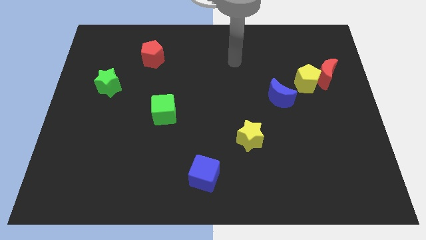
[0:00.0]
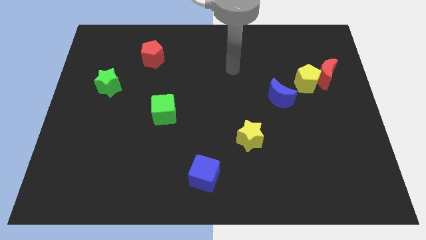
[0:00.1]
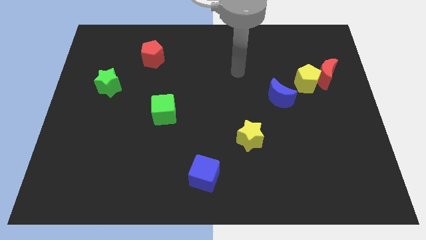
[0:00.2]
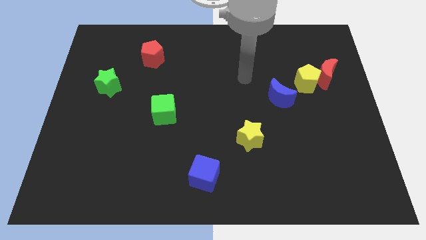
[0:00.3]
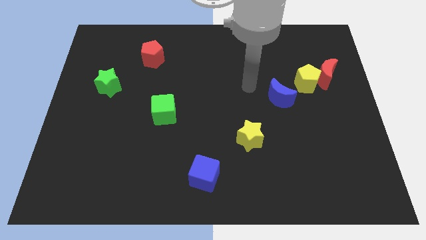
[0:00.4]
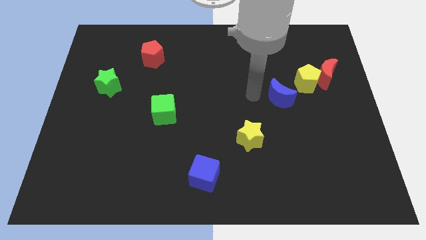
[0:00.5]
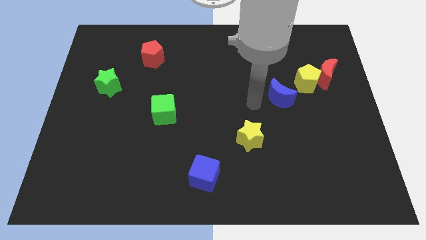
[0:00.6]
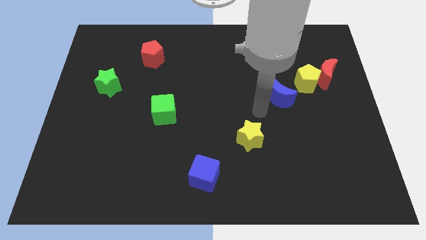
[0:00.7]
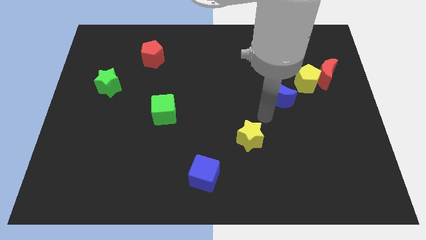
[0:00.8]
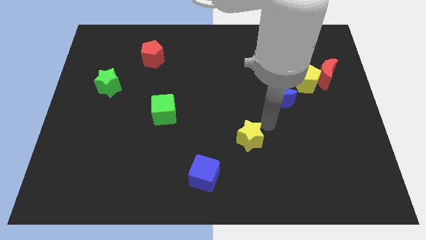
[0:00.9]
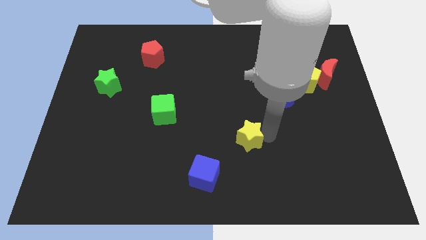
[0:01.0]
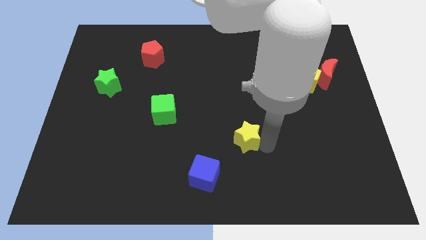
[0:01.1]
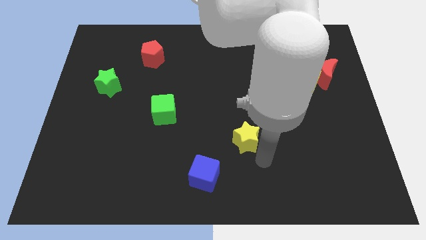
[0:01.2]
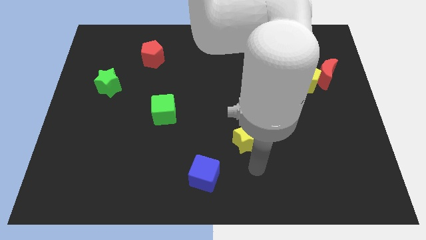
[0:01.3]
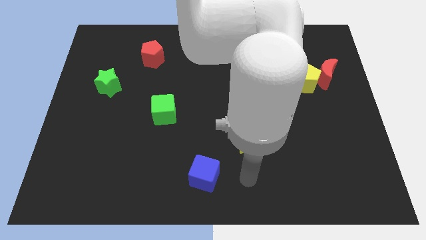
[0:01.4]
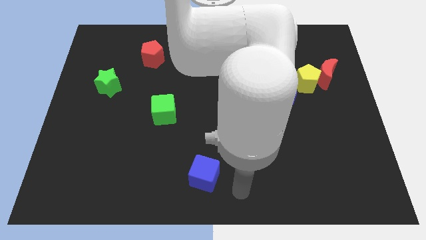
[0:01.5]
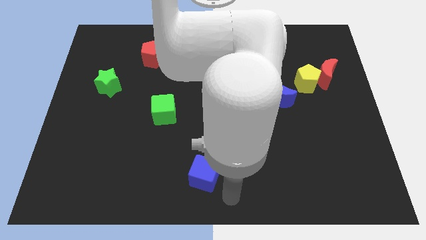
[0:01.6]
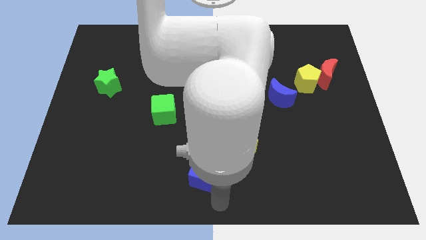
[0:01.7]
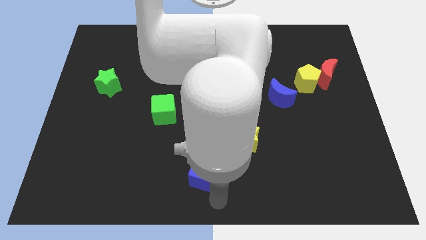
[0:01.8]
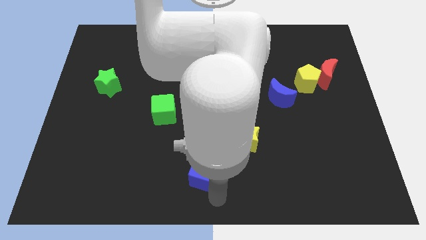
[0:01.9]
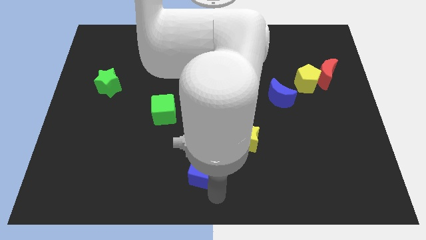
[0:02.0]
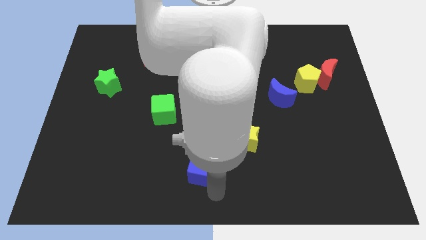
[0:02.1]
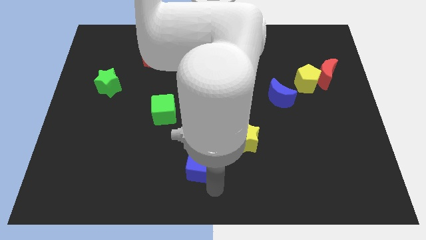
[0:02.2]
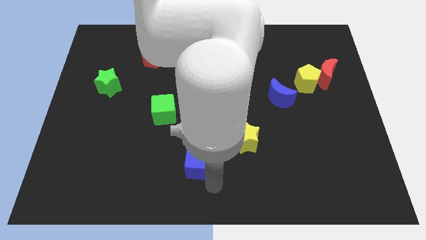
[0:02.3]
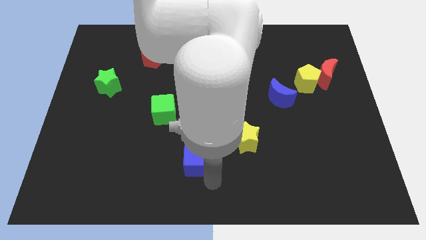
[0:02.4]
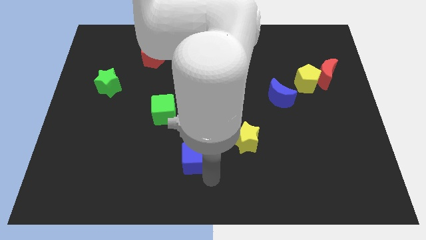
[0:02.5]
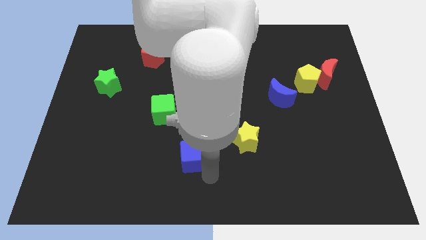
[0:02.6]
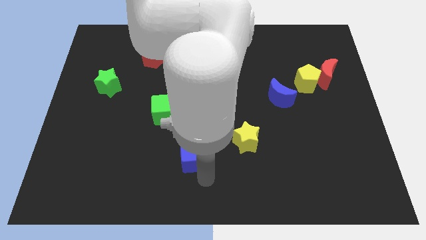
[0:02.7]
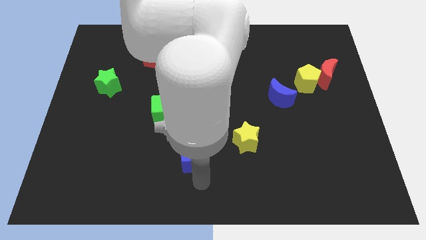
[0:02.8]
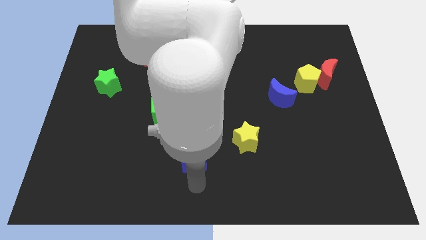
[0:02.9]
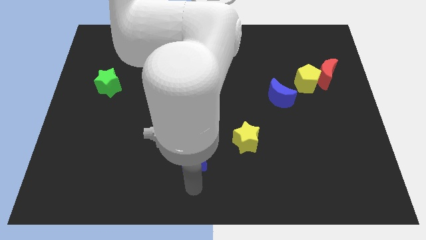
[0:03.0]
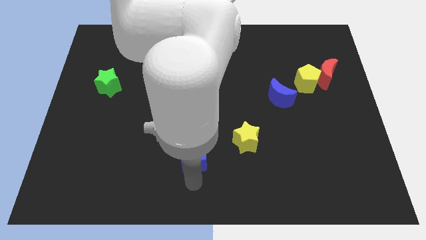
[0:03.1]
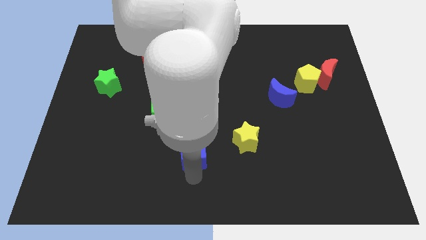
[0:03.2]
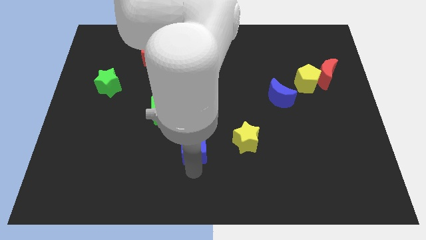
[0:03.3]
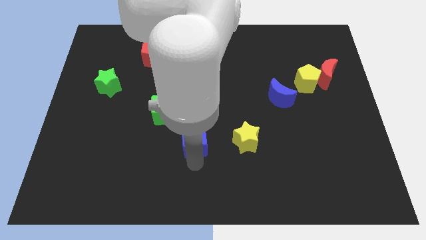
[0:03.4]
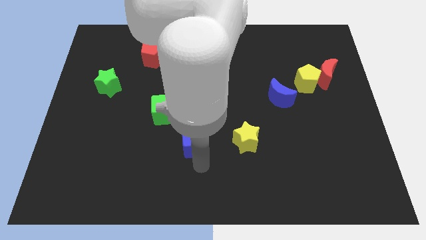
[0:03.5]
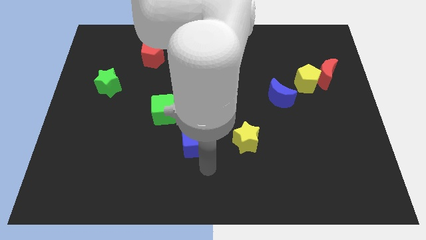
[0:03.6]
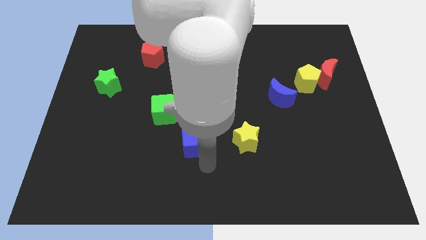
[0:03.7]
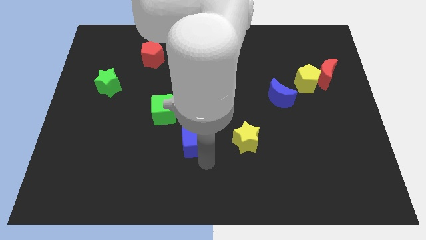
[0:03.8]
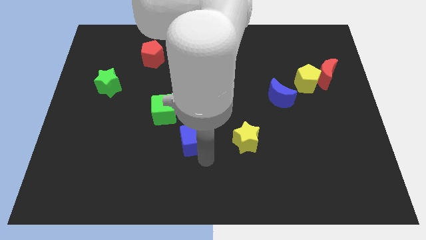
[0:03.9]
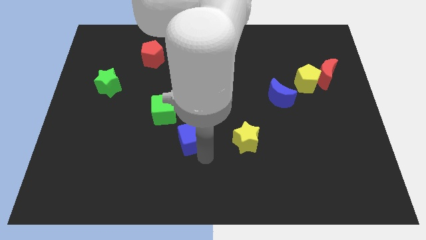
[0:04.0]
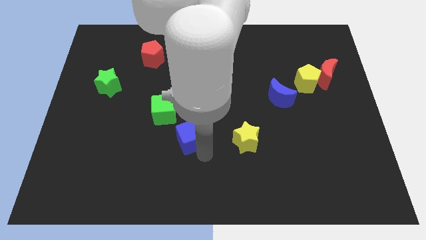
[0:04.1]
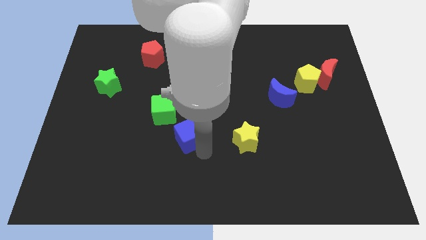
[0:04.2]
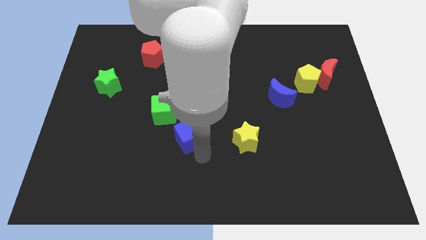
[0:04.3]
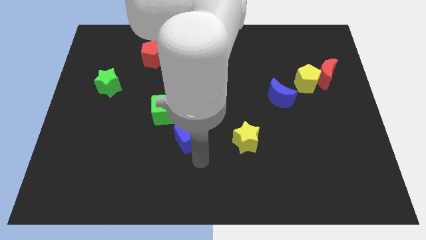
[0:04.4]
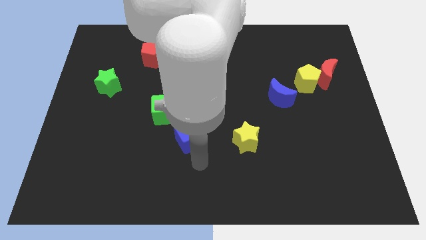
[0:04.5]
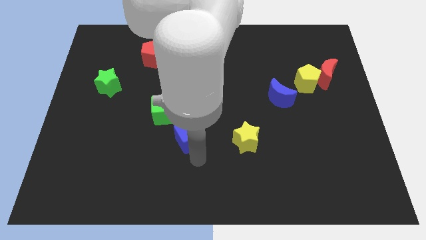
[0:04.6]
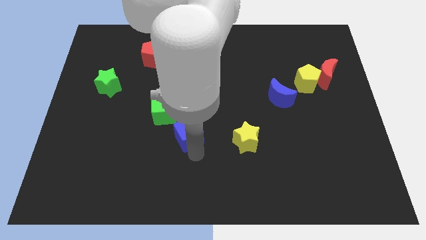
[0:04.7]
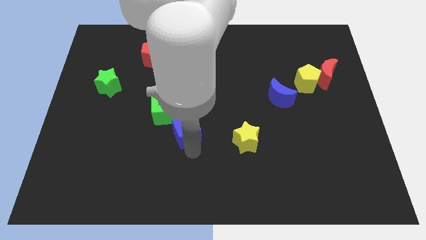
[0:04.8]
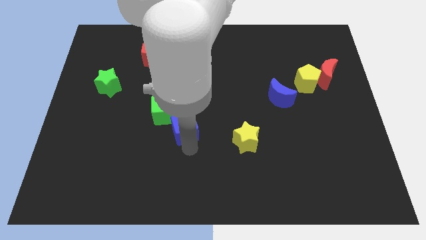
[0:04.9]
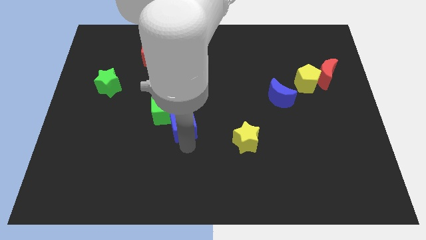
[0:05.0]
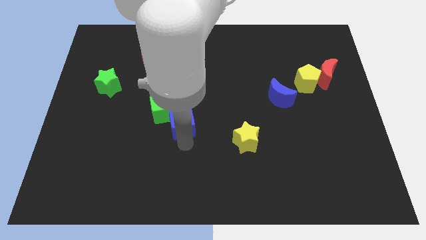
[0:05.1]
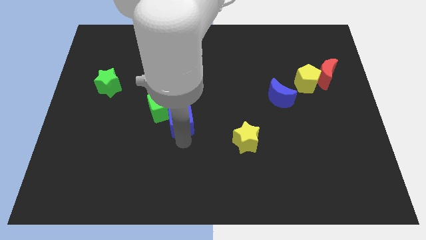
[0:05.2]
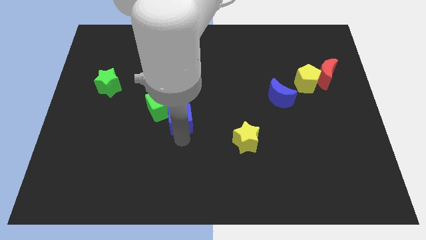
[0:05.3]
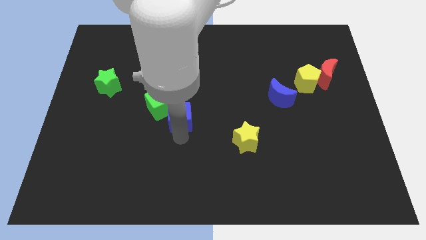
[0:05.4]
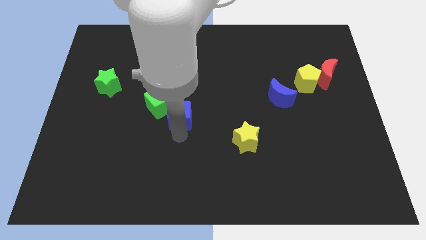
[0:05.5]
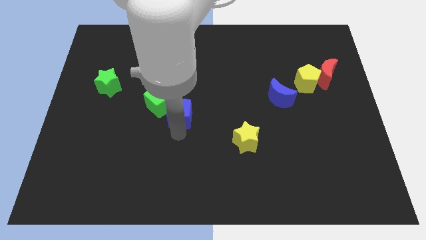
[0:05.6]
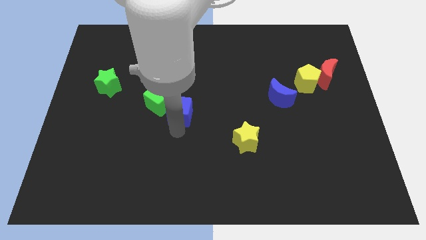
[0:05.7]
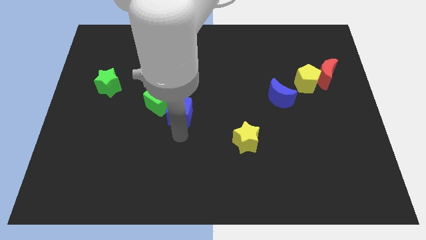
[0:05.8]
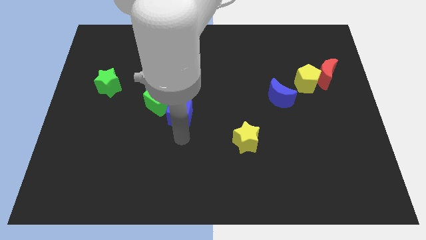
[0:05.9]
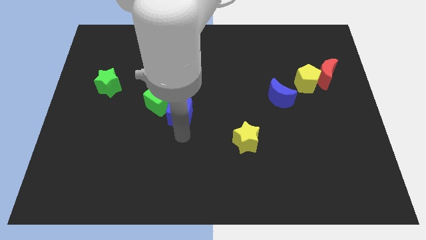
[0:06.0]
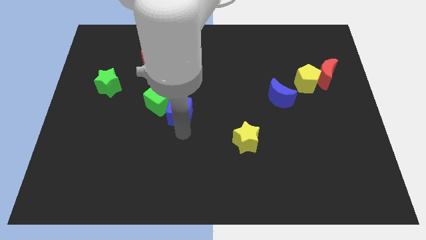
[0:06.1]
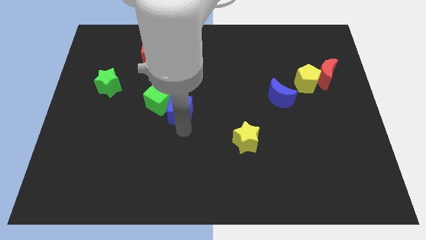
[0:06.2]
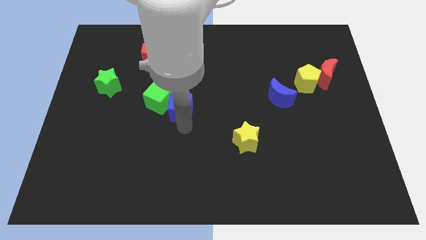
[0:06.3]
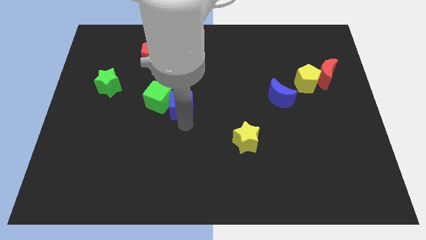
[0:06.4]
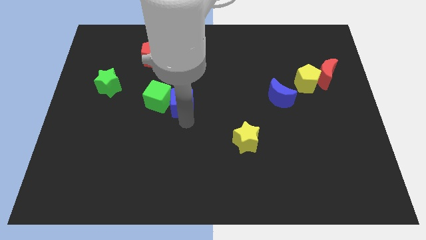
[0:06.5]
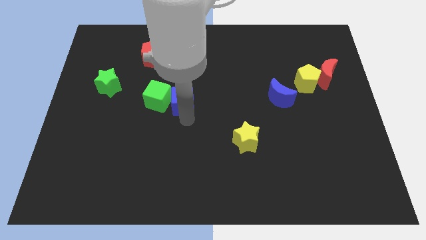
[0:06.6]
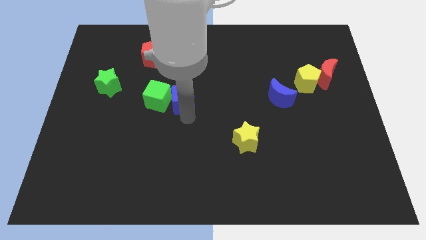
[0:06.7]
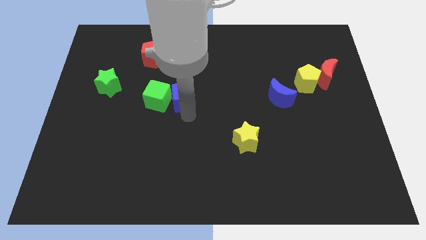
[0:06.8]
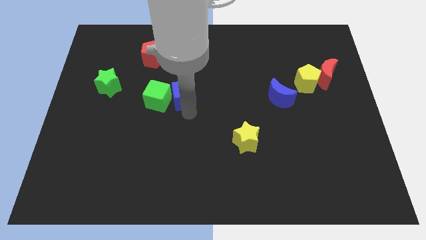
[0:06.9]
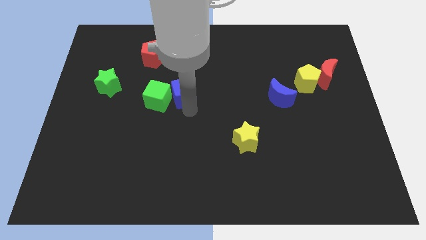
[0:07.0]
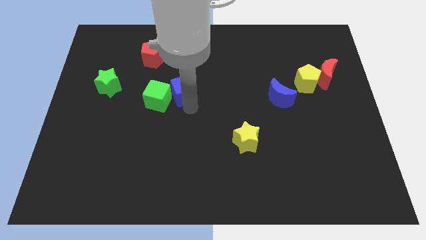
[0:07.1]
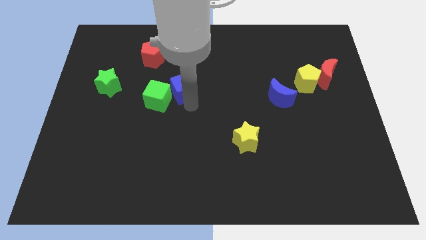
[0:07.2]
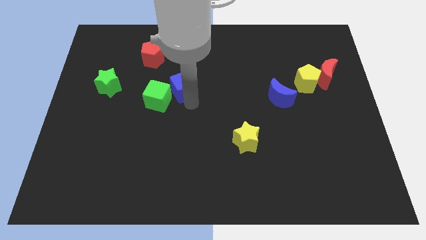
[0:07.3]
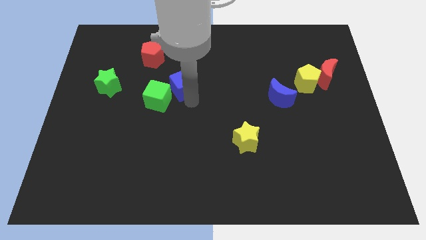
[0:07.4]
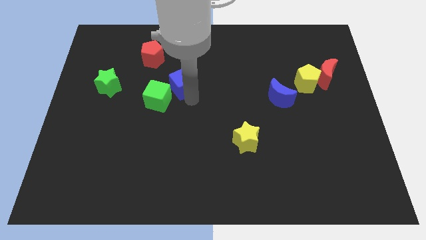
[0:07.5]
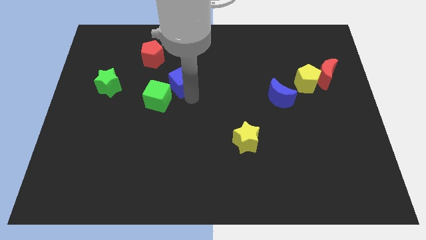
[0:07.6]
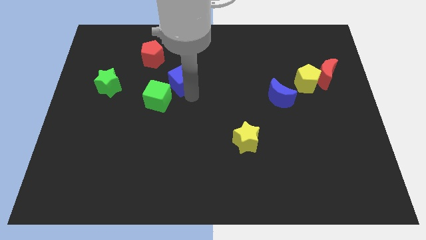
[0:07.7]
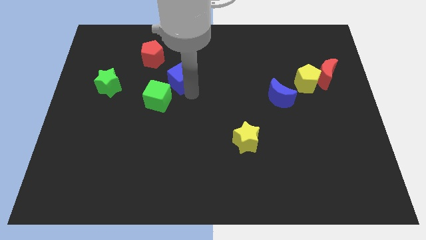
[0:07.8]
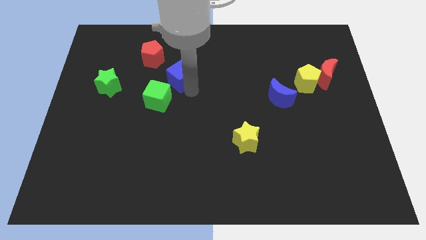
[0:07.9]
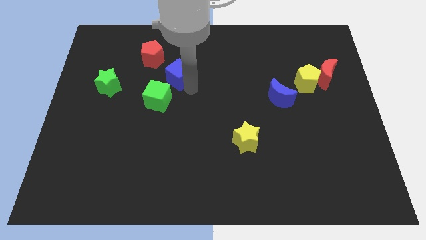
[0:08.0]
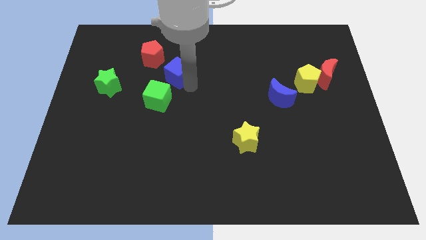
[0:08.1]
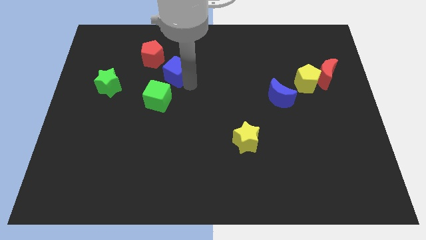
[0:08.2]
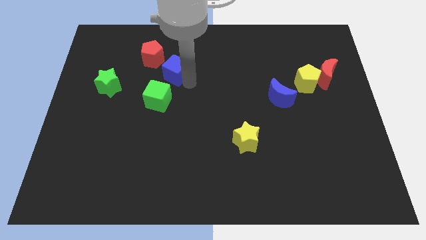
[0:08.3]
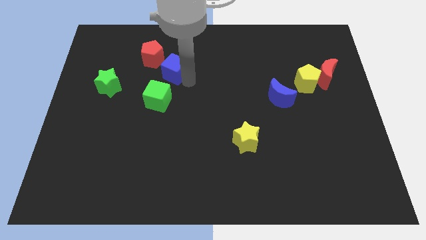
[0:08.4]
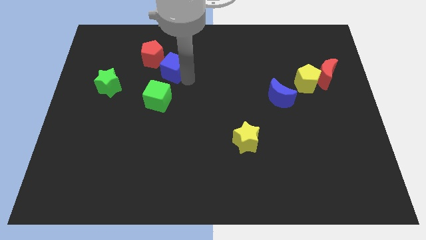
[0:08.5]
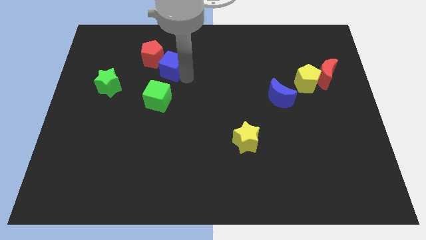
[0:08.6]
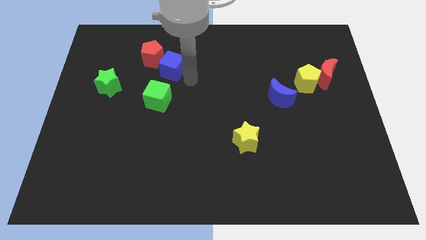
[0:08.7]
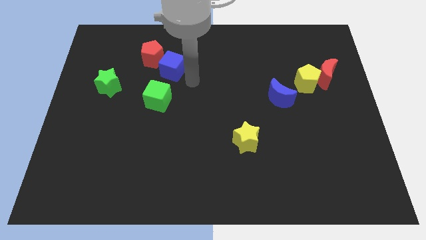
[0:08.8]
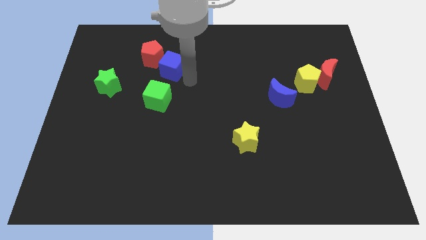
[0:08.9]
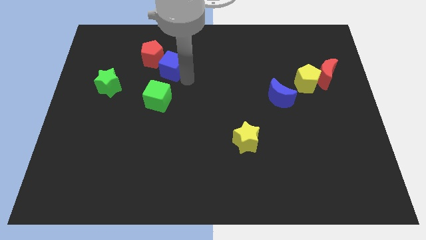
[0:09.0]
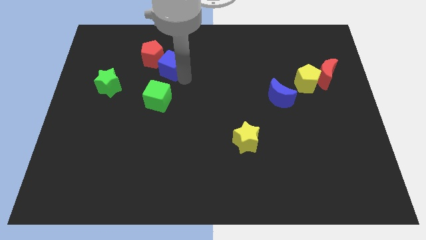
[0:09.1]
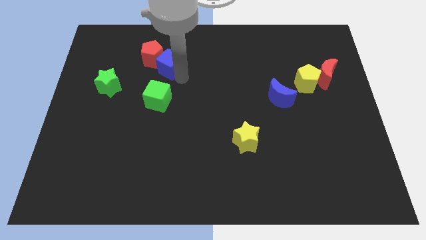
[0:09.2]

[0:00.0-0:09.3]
slide the blue cube close to the red pentagon
